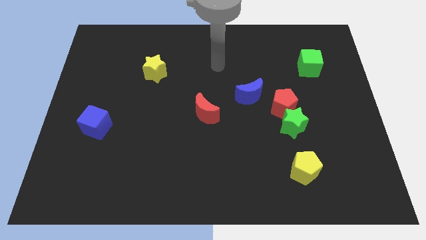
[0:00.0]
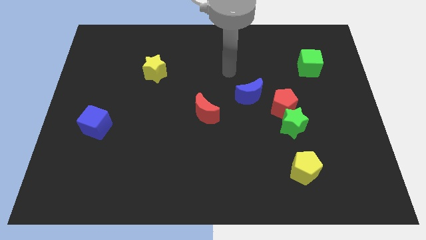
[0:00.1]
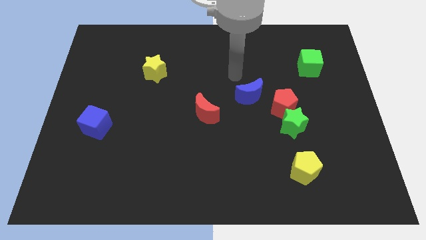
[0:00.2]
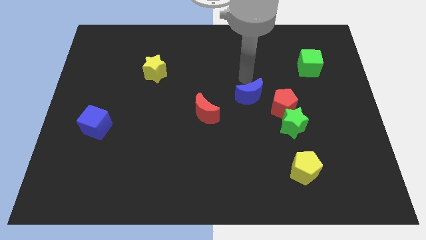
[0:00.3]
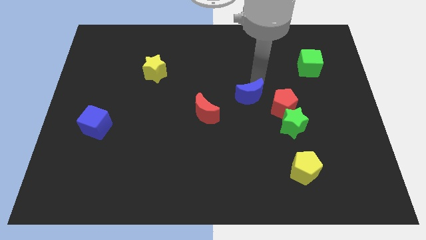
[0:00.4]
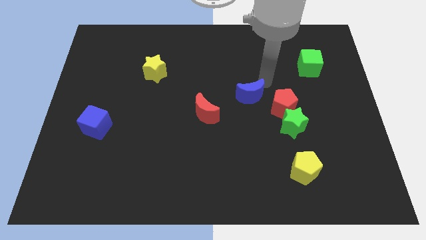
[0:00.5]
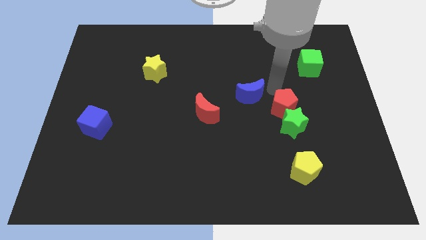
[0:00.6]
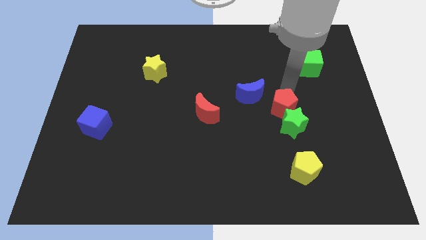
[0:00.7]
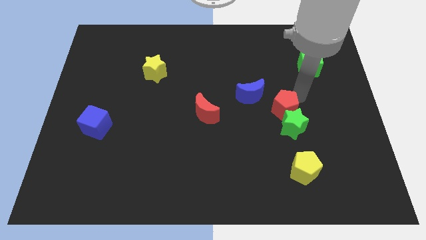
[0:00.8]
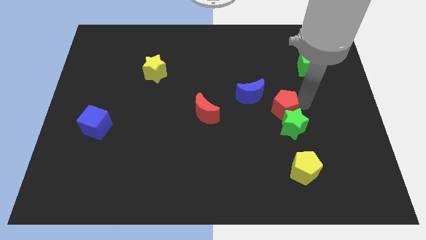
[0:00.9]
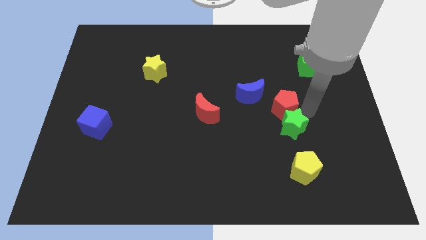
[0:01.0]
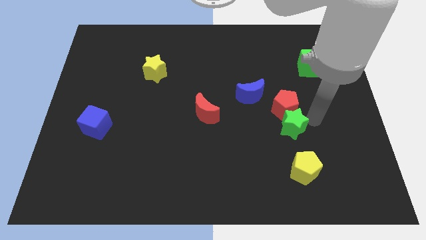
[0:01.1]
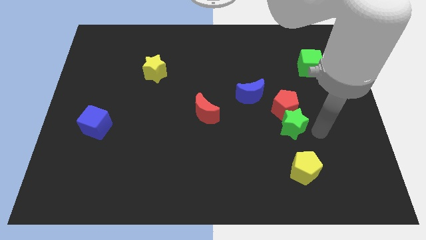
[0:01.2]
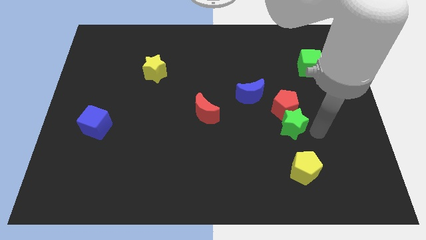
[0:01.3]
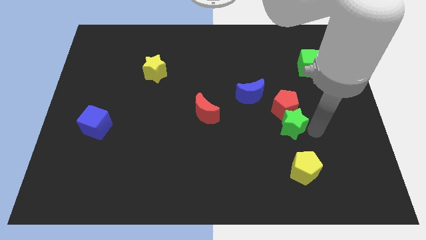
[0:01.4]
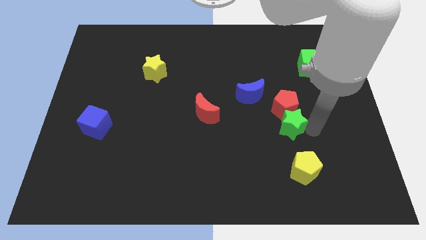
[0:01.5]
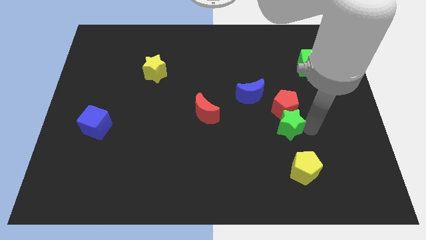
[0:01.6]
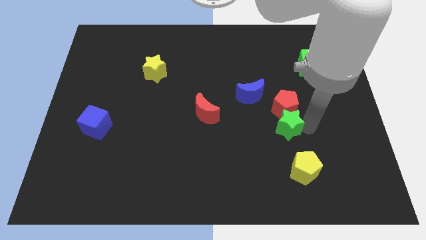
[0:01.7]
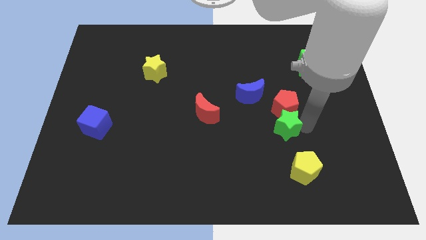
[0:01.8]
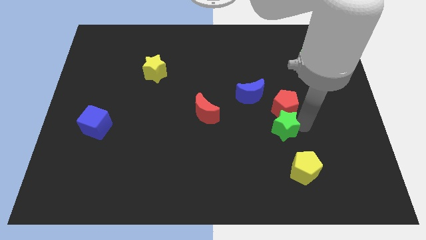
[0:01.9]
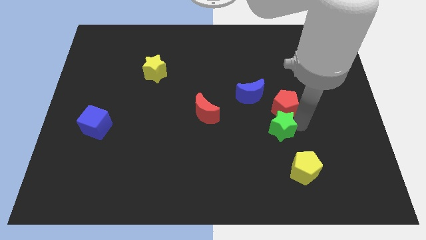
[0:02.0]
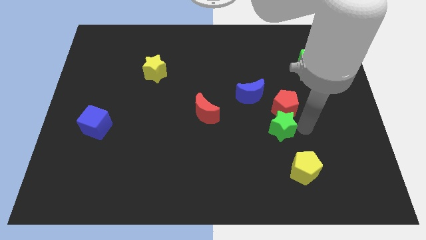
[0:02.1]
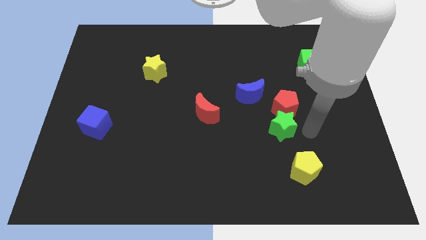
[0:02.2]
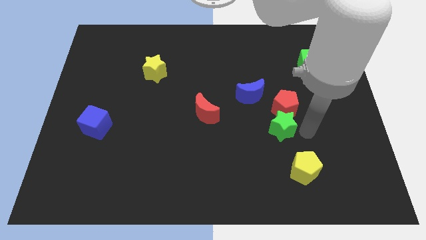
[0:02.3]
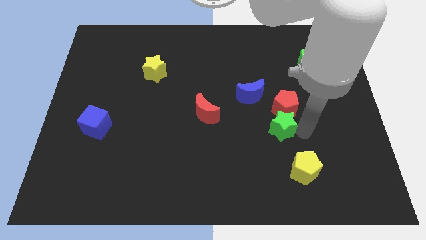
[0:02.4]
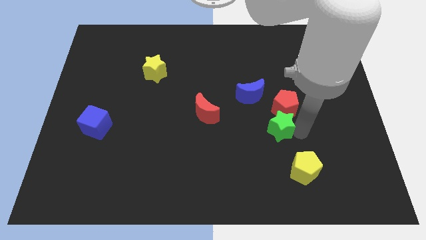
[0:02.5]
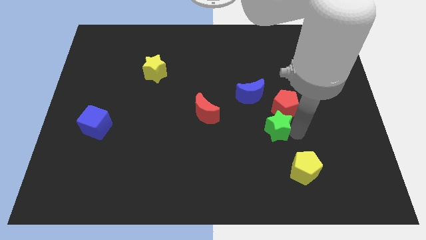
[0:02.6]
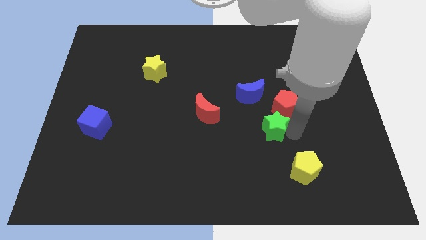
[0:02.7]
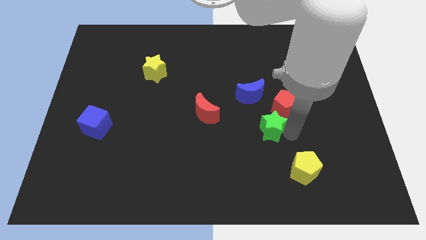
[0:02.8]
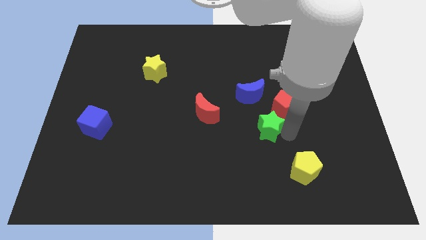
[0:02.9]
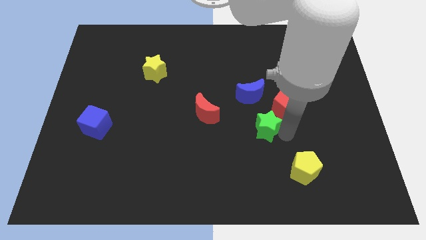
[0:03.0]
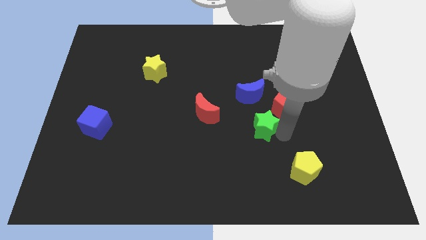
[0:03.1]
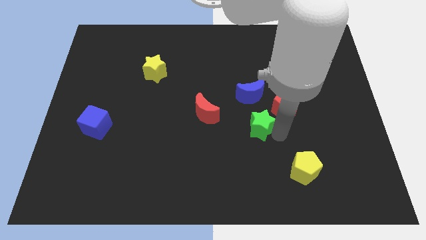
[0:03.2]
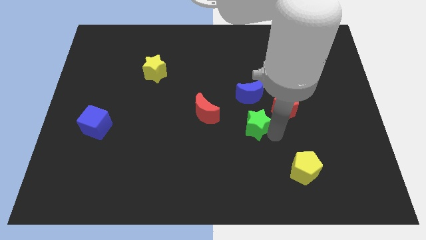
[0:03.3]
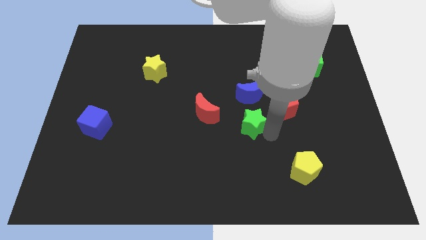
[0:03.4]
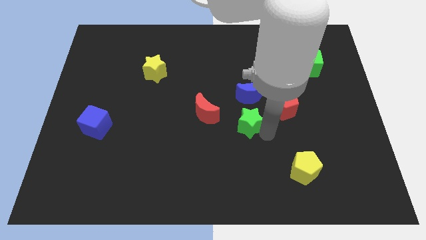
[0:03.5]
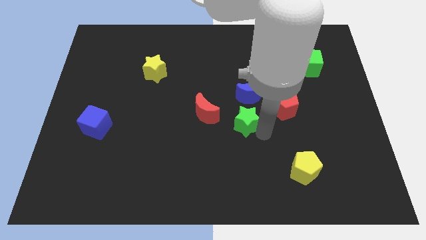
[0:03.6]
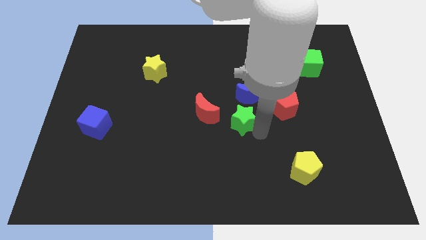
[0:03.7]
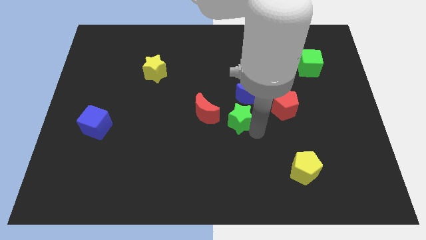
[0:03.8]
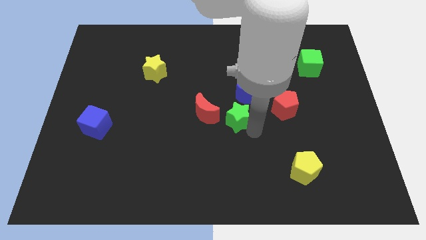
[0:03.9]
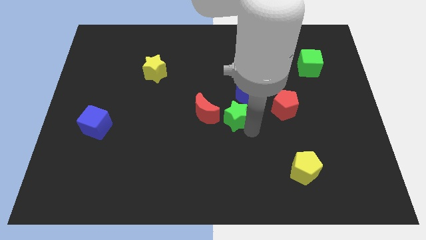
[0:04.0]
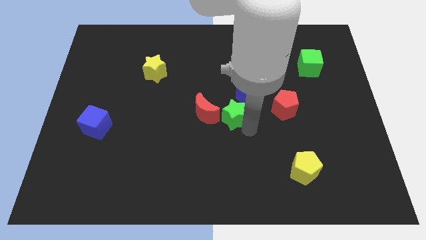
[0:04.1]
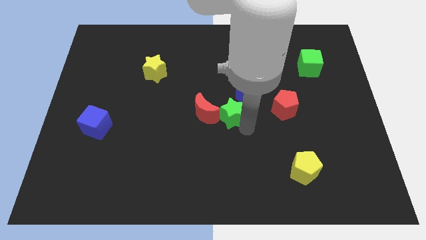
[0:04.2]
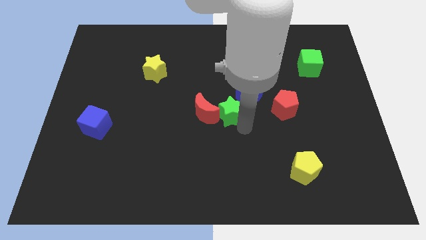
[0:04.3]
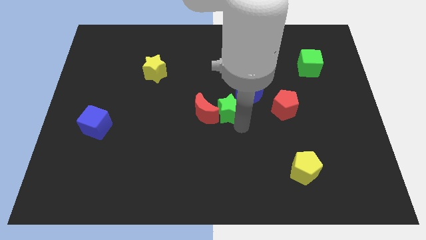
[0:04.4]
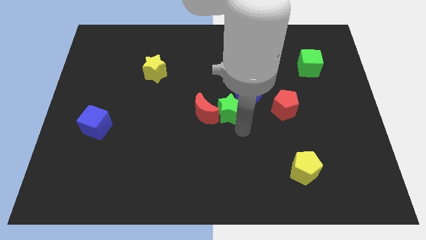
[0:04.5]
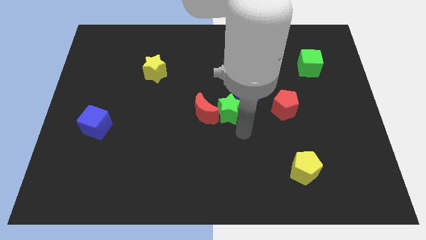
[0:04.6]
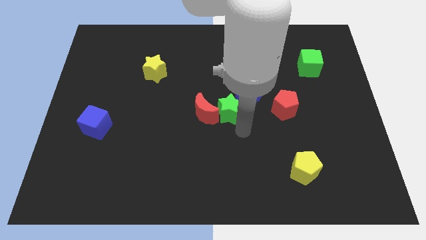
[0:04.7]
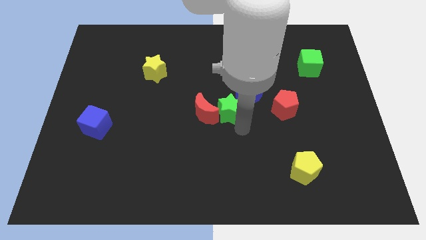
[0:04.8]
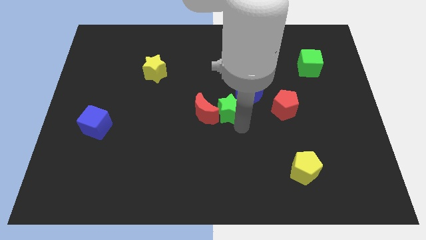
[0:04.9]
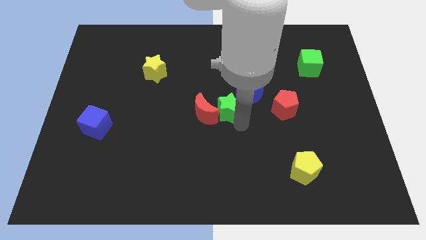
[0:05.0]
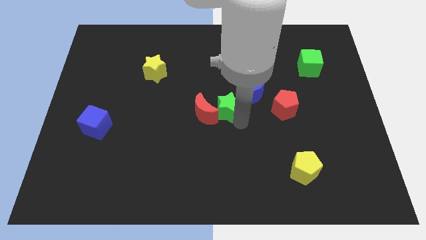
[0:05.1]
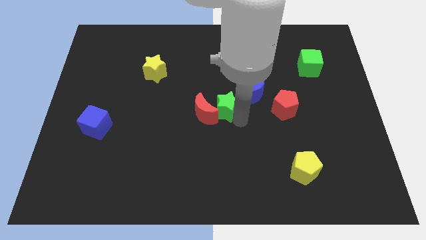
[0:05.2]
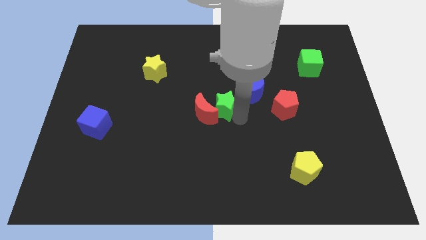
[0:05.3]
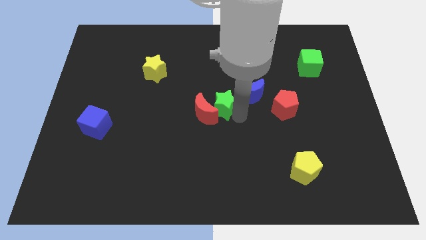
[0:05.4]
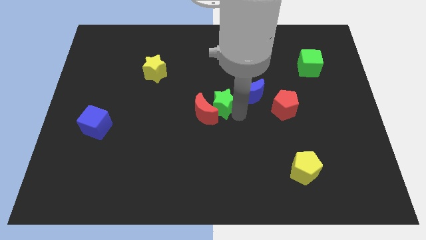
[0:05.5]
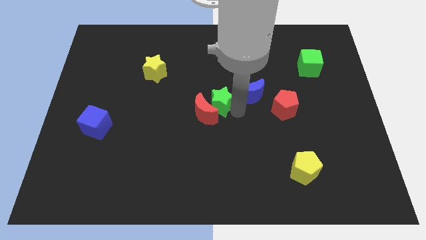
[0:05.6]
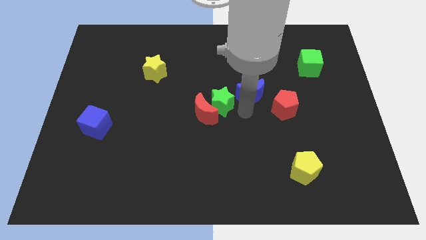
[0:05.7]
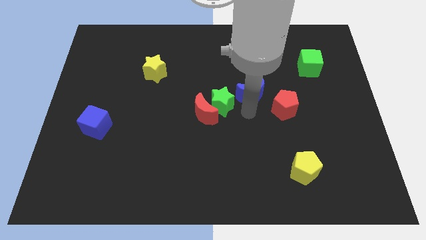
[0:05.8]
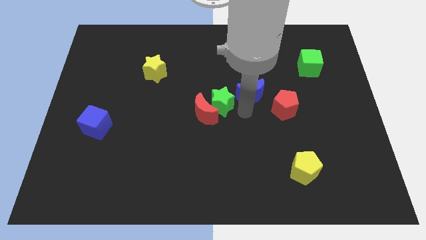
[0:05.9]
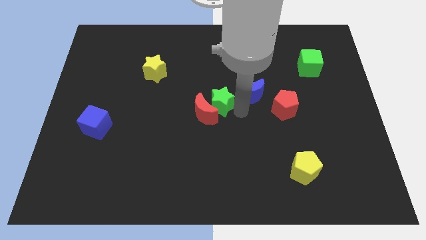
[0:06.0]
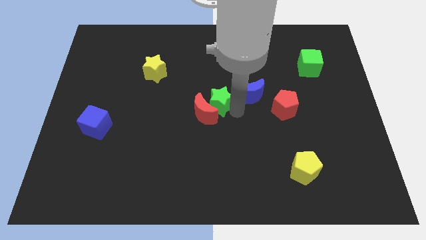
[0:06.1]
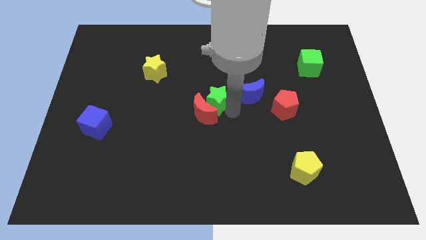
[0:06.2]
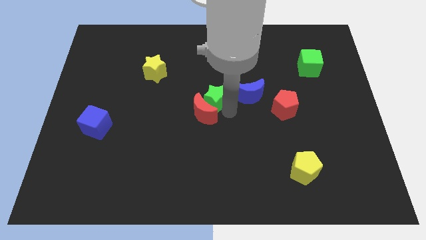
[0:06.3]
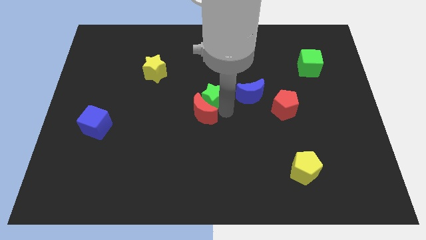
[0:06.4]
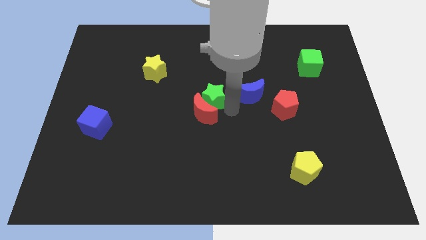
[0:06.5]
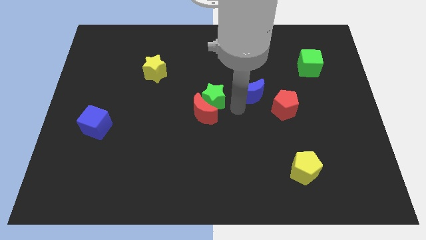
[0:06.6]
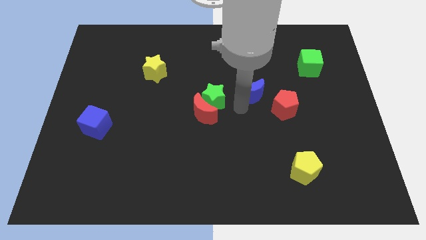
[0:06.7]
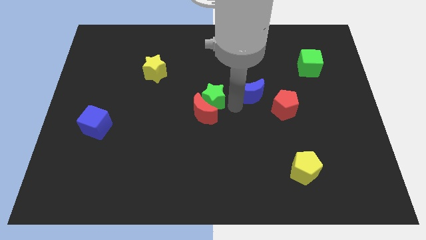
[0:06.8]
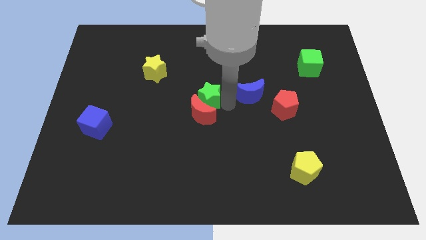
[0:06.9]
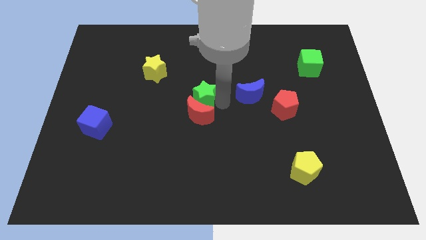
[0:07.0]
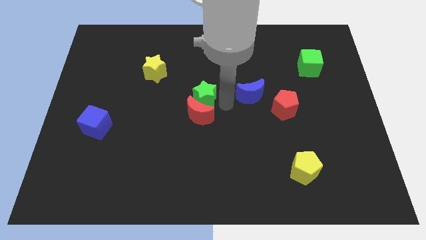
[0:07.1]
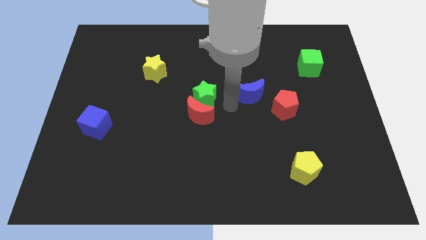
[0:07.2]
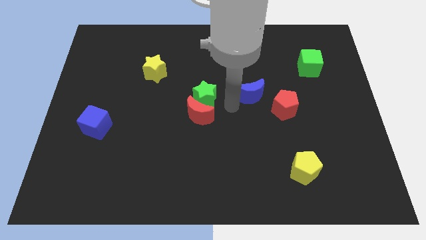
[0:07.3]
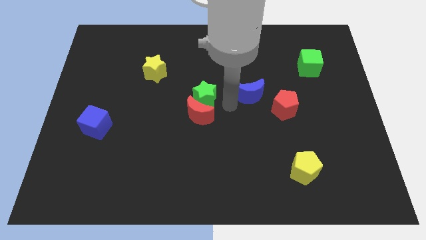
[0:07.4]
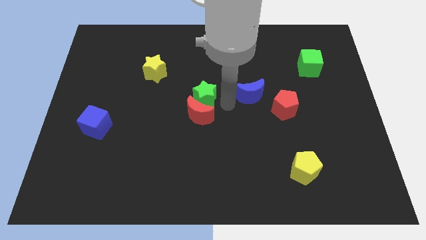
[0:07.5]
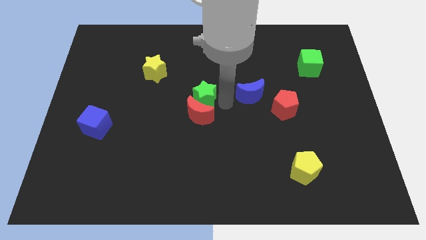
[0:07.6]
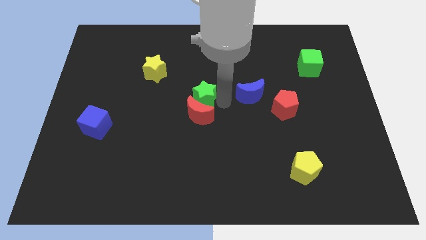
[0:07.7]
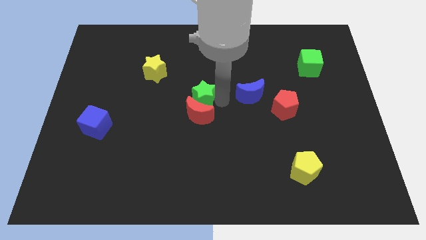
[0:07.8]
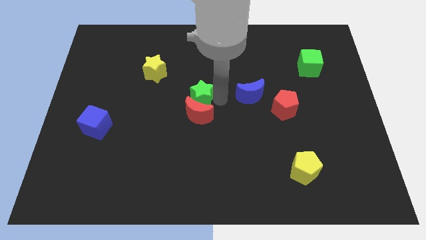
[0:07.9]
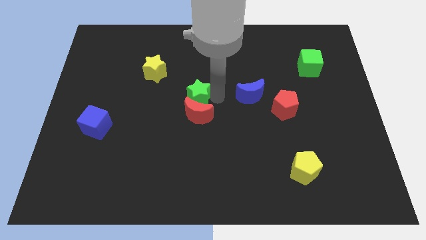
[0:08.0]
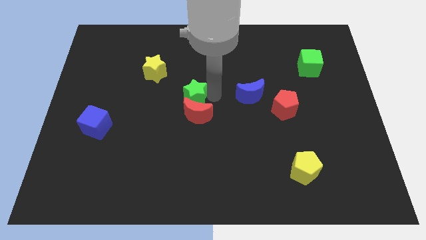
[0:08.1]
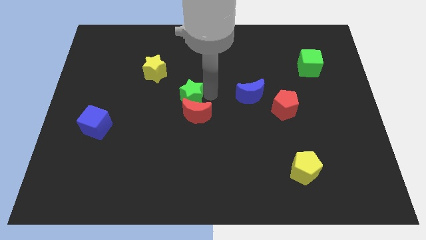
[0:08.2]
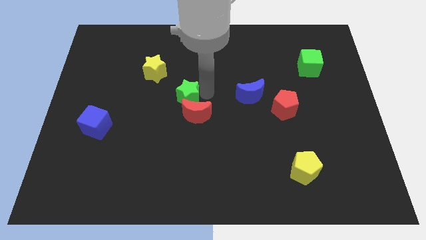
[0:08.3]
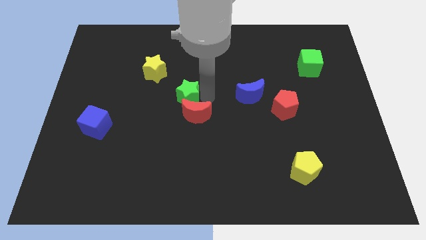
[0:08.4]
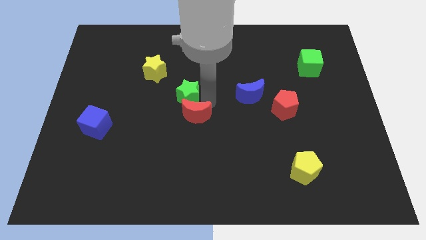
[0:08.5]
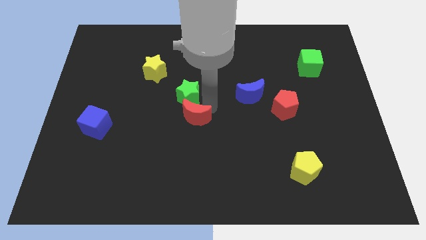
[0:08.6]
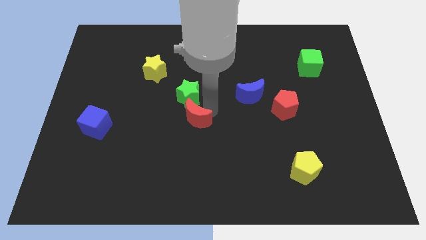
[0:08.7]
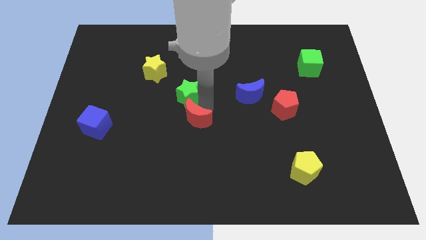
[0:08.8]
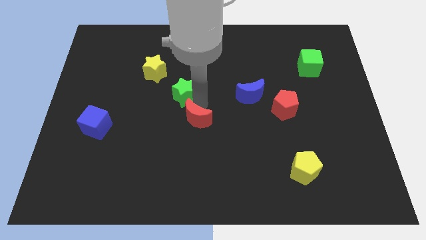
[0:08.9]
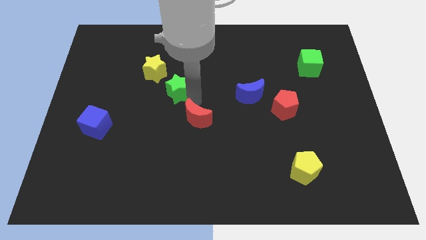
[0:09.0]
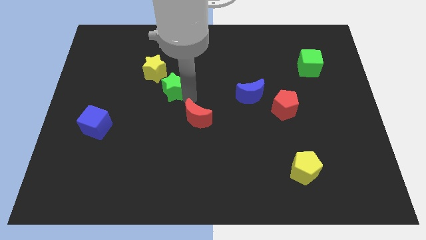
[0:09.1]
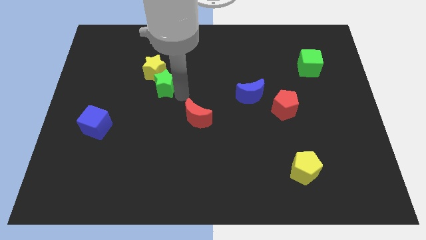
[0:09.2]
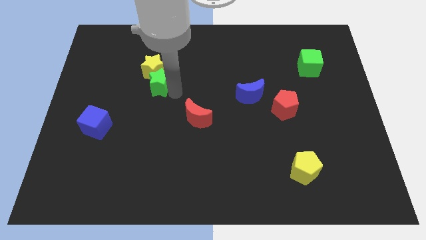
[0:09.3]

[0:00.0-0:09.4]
put the green star close to the yellow star
